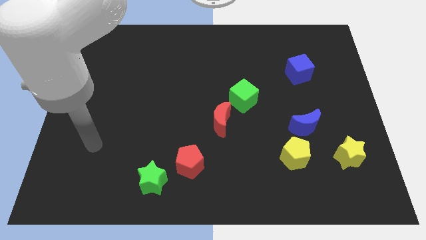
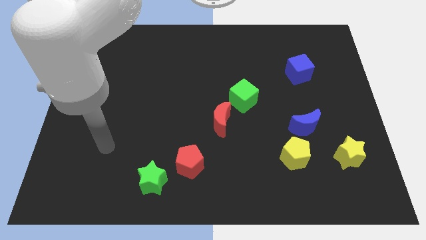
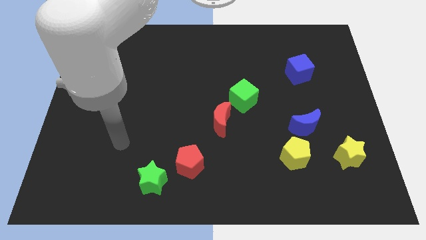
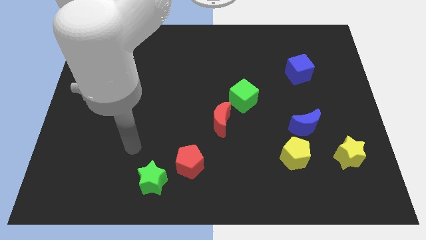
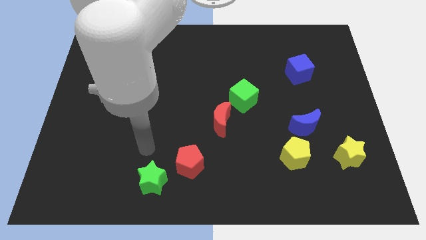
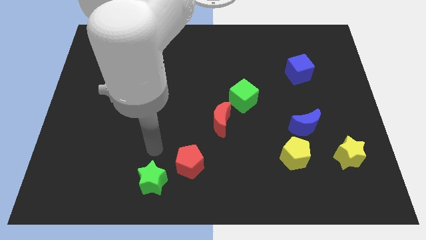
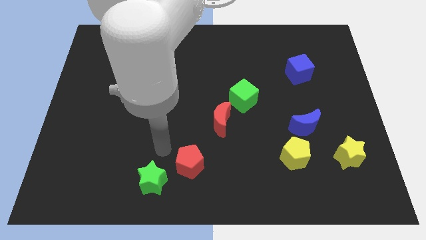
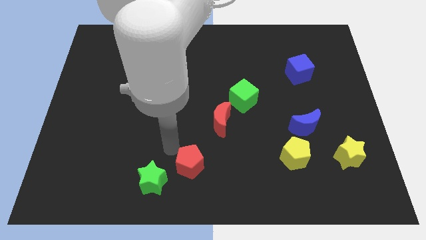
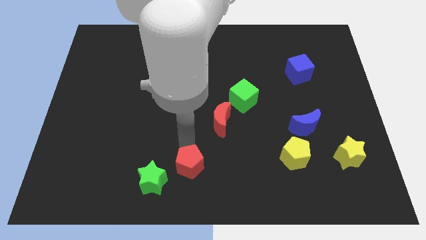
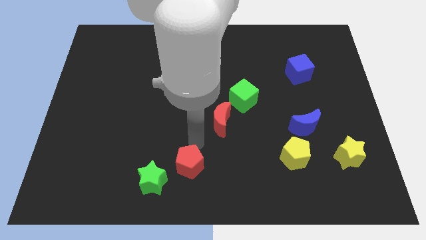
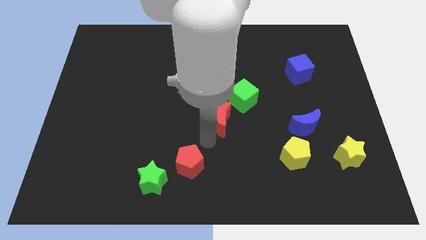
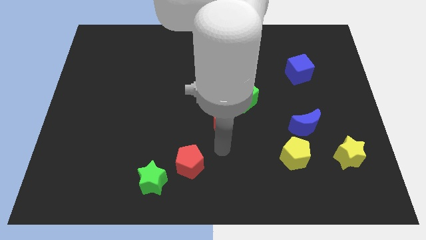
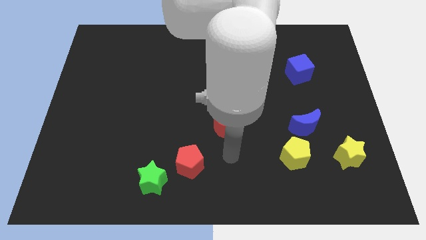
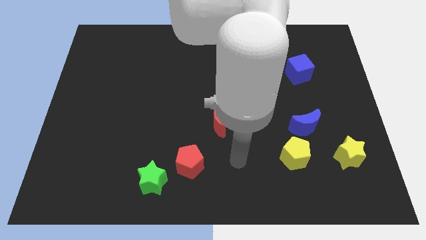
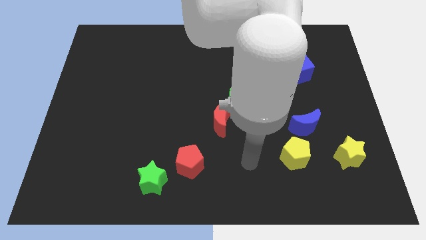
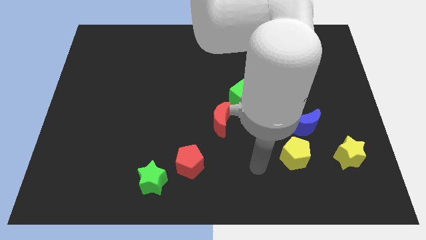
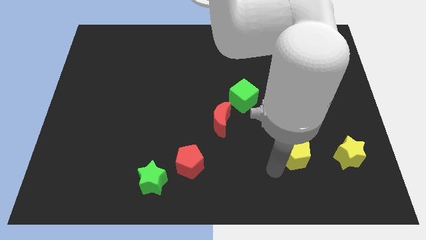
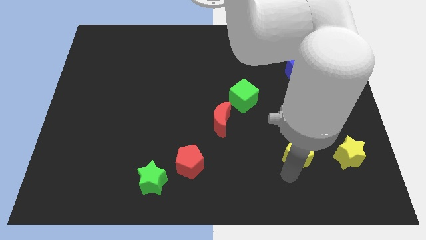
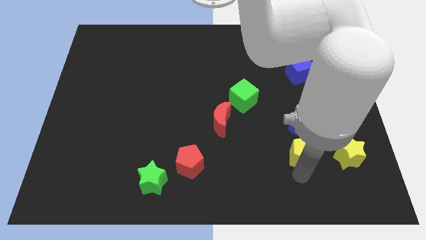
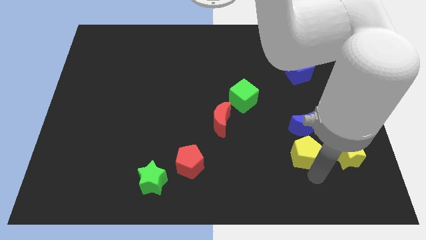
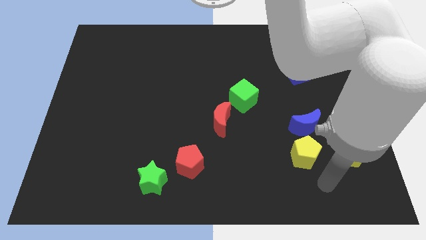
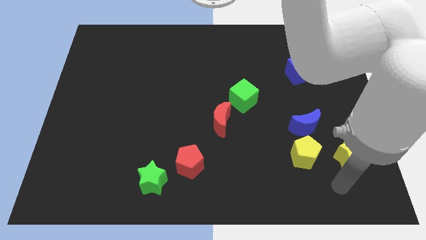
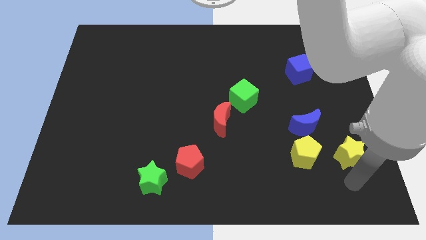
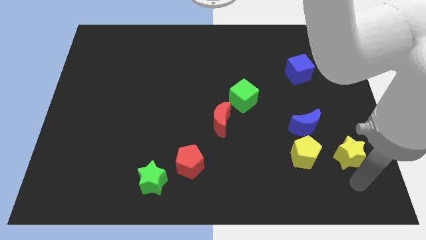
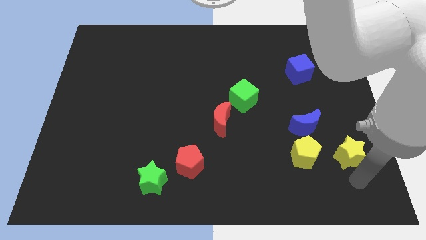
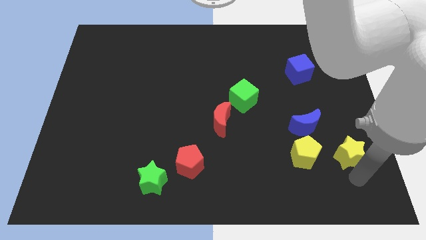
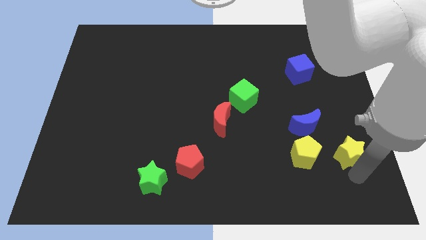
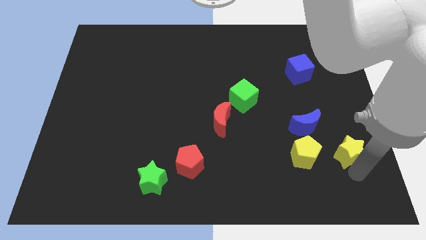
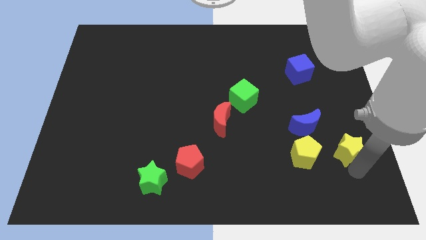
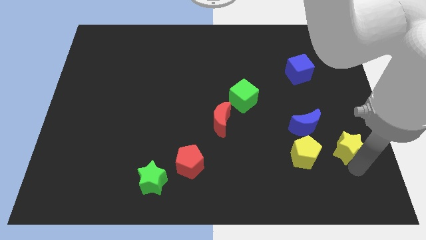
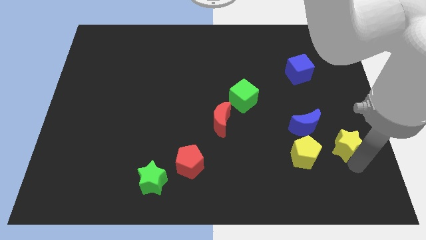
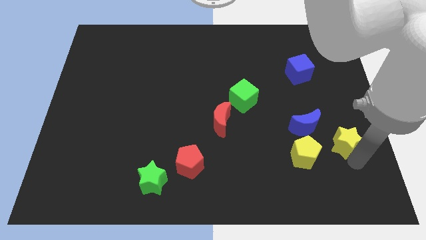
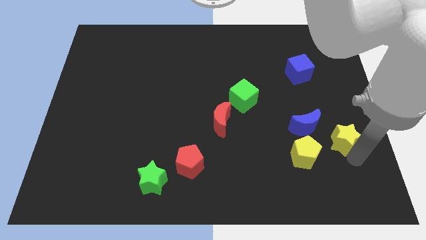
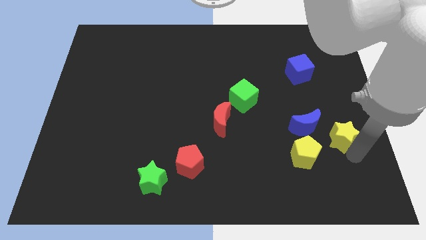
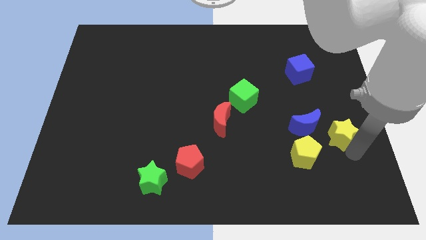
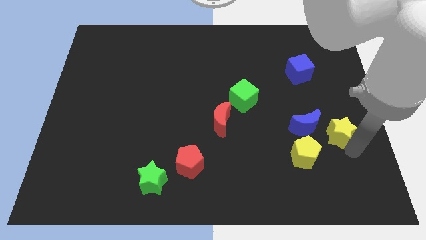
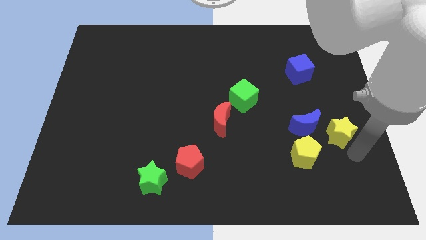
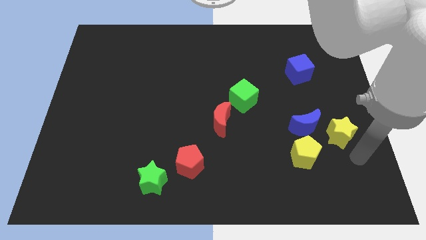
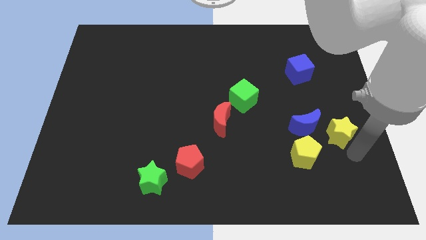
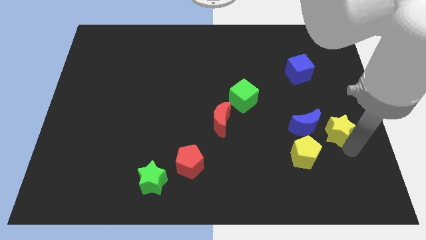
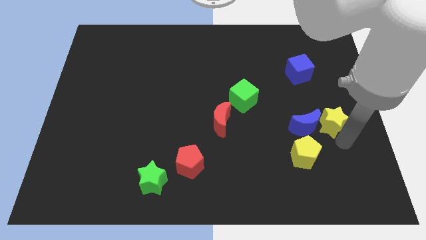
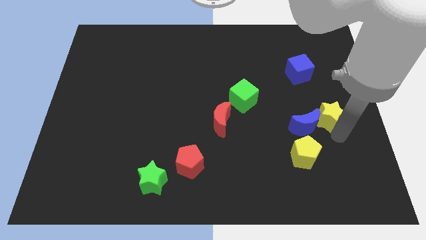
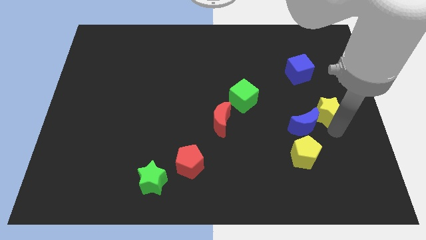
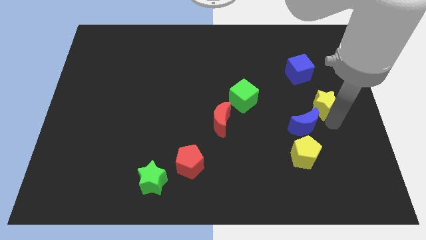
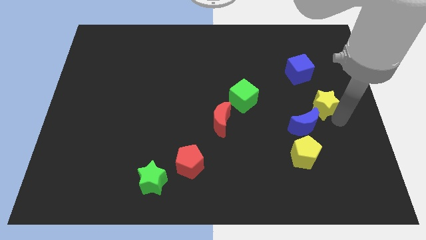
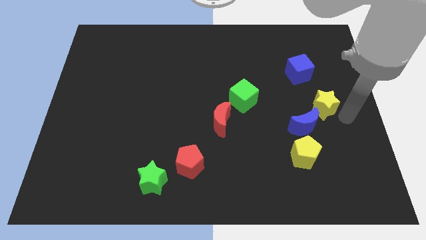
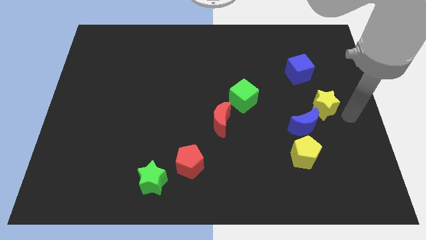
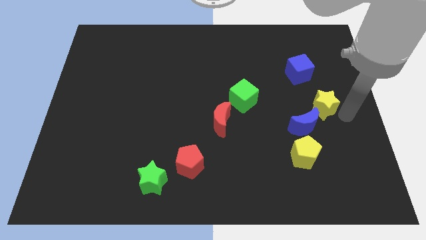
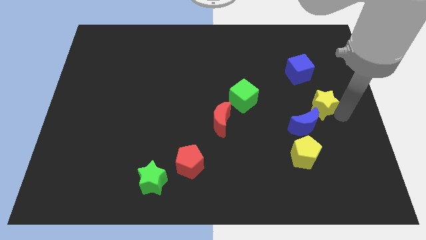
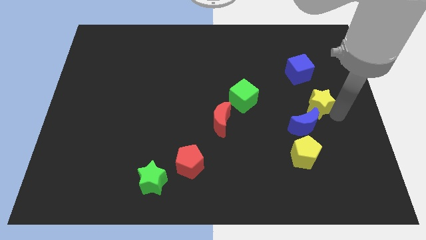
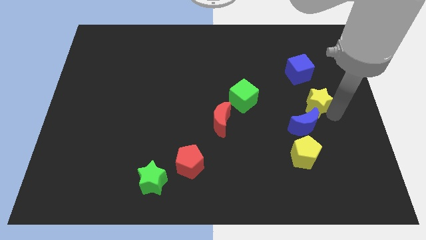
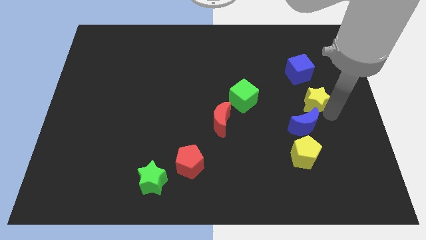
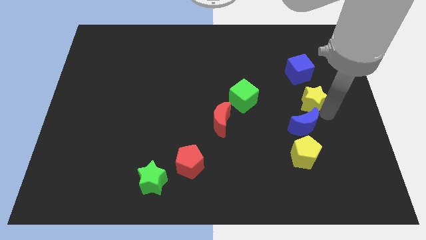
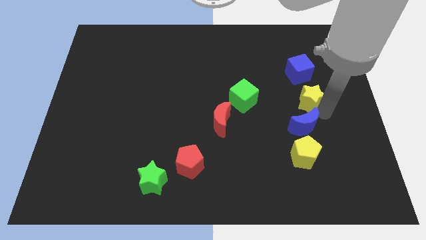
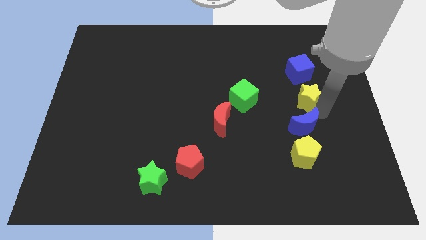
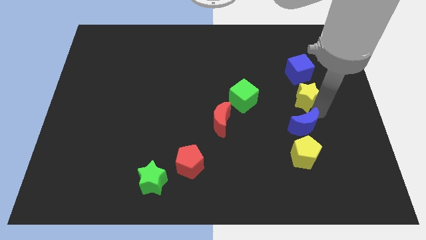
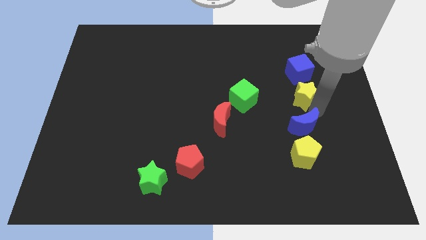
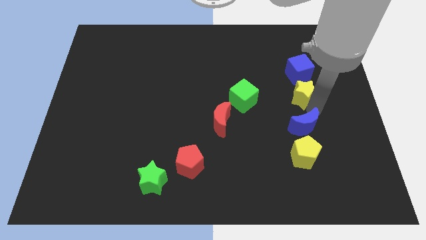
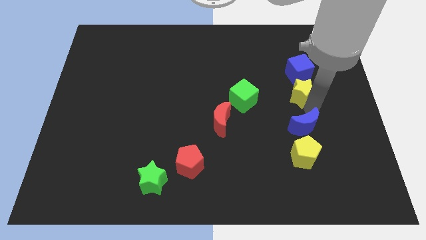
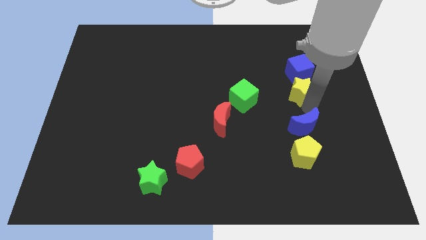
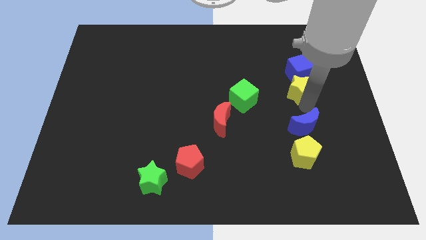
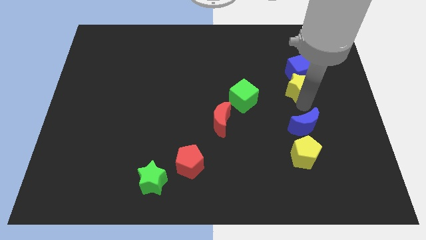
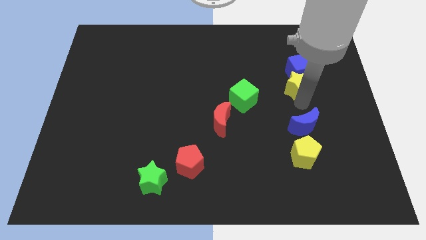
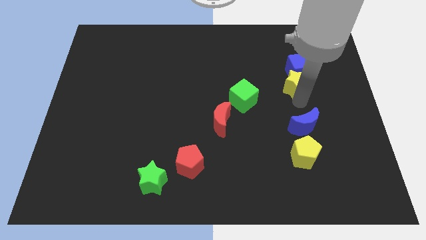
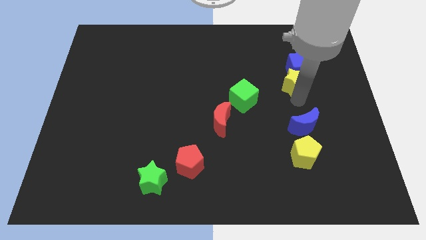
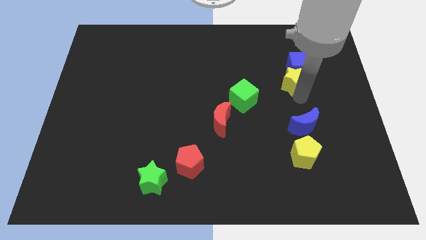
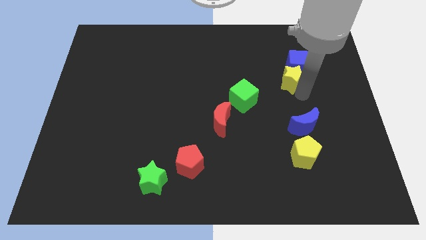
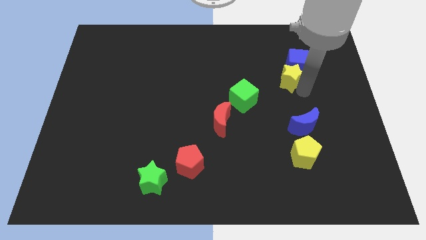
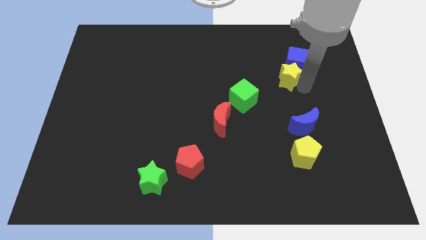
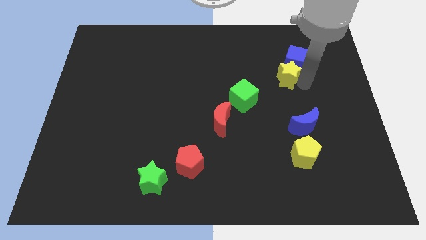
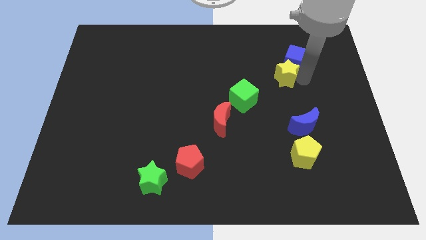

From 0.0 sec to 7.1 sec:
push the yellow star diagonally upwards and left

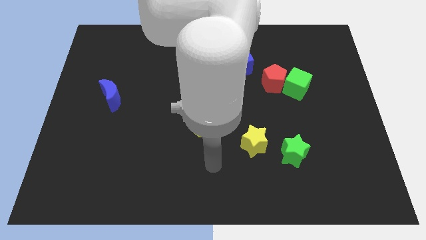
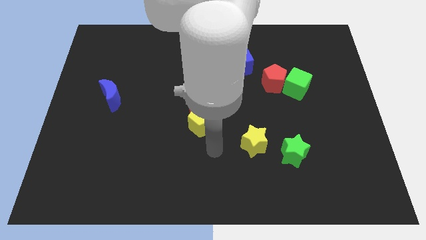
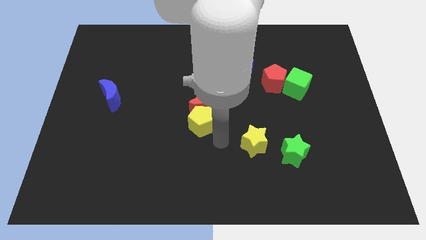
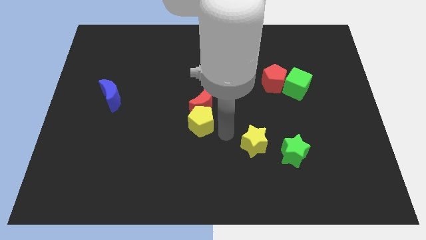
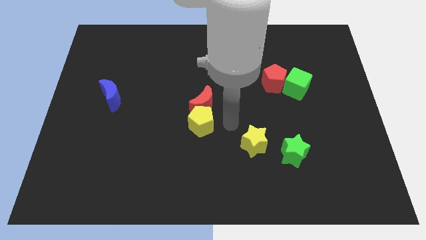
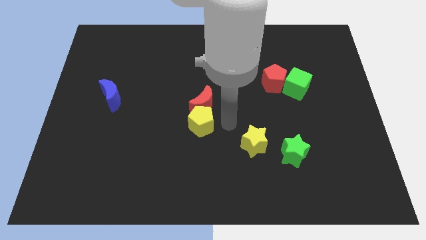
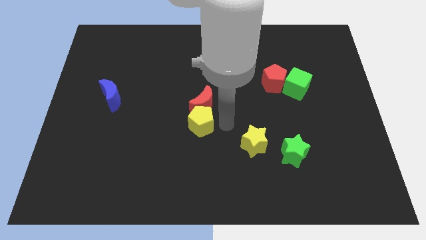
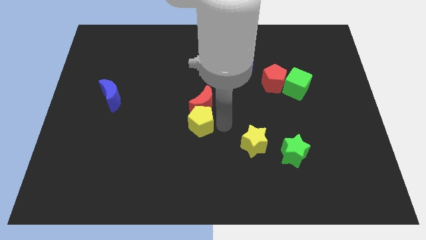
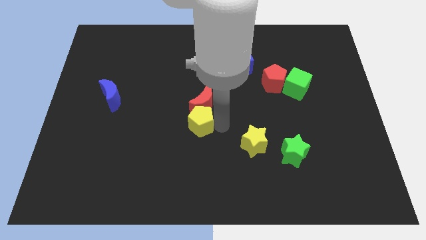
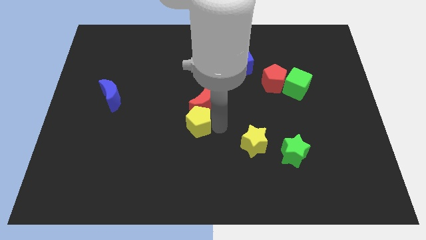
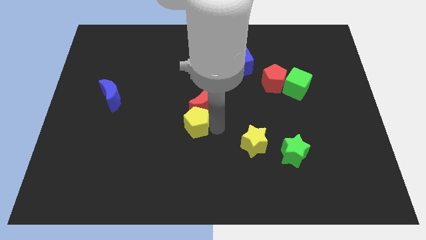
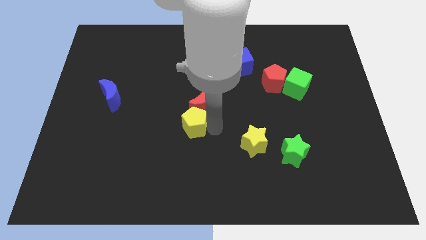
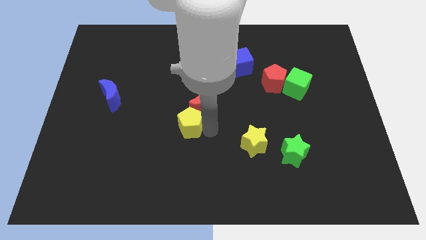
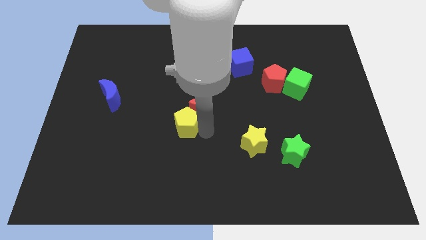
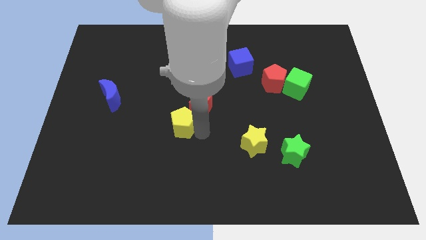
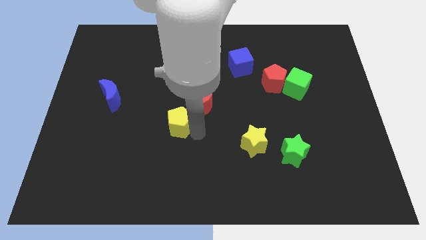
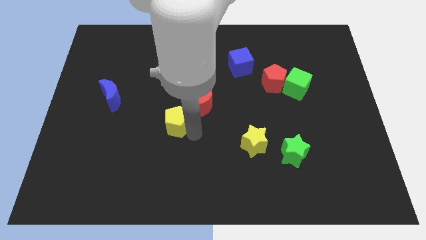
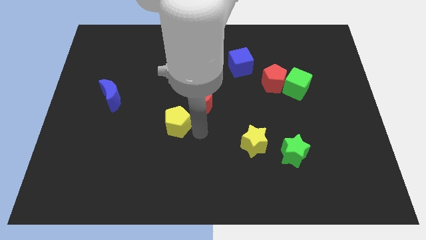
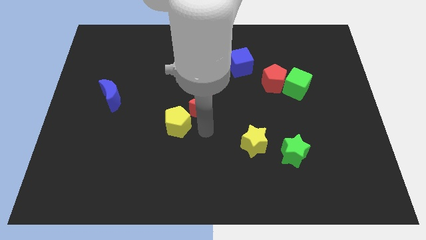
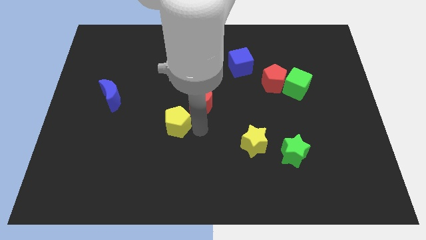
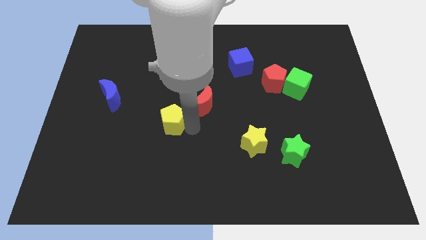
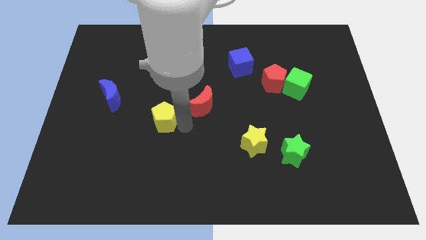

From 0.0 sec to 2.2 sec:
slightly move the yellow pentagon to the left
